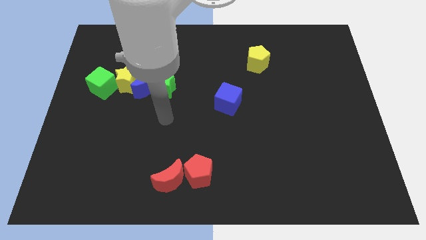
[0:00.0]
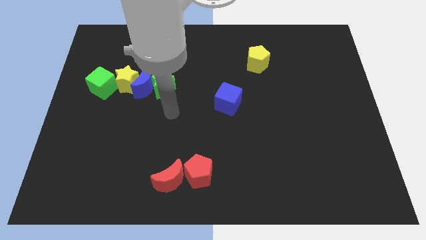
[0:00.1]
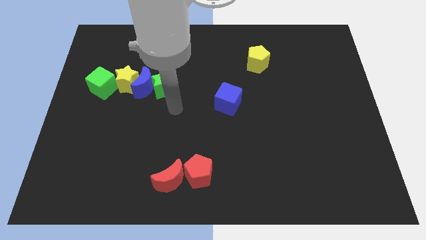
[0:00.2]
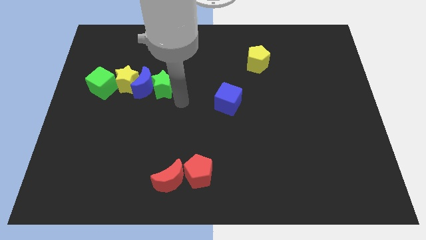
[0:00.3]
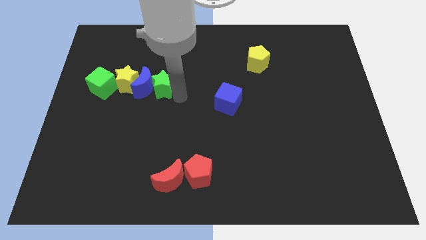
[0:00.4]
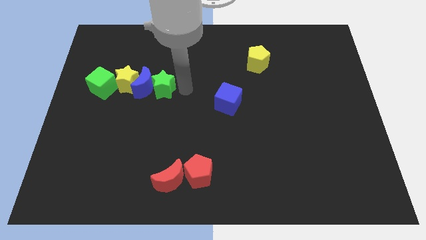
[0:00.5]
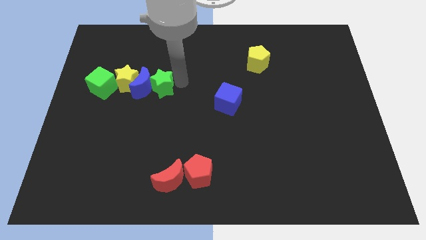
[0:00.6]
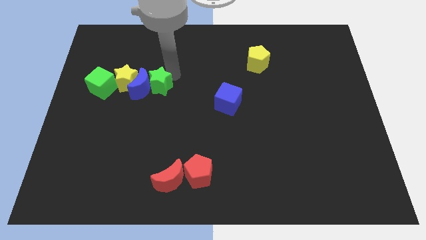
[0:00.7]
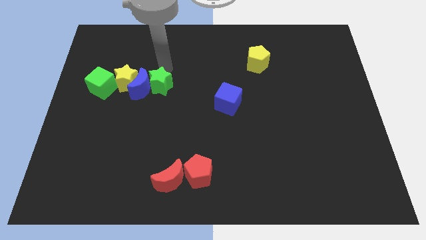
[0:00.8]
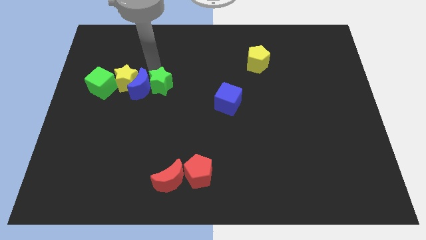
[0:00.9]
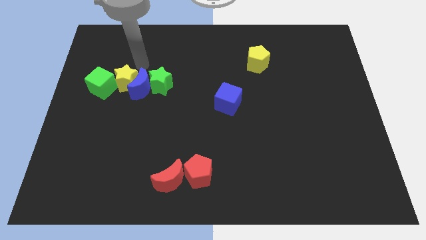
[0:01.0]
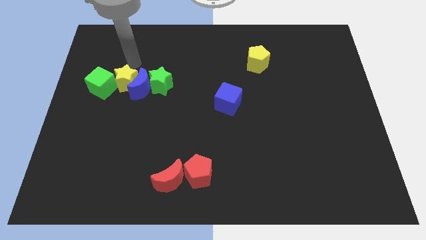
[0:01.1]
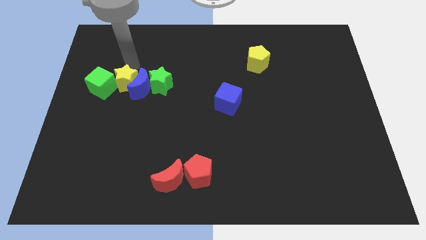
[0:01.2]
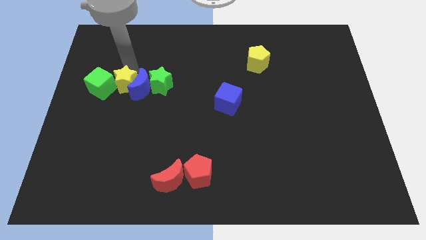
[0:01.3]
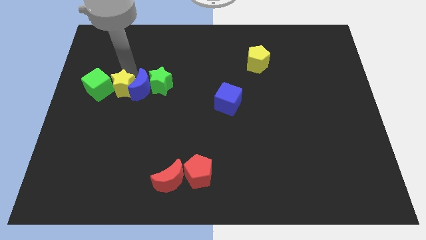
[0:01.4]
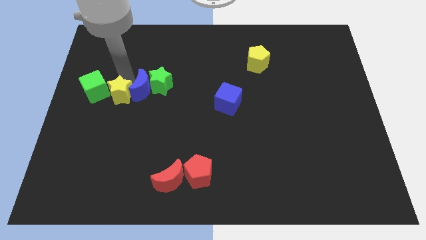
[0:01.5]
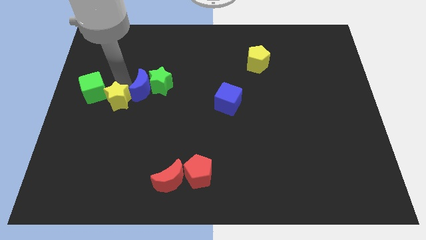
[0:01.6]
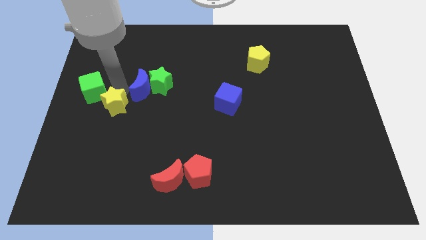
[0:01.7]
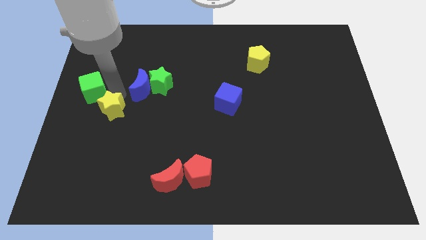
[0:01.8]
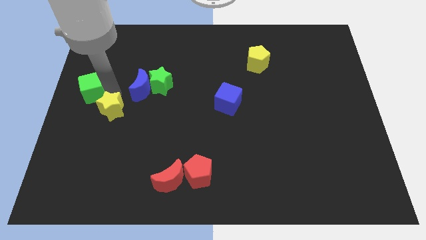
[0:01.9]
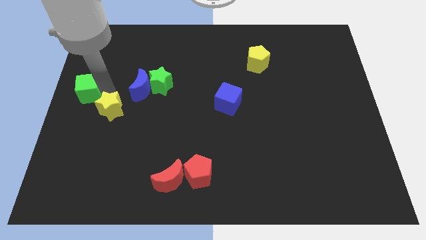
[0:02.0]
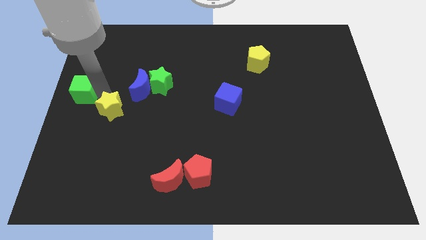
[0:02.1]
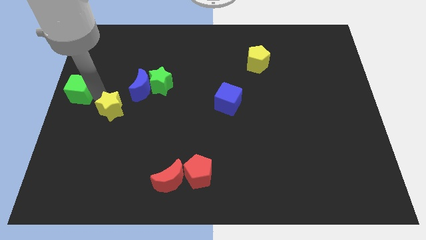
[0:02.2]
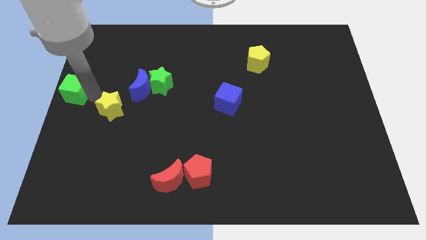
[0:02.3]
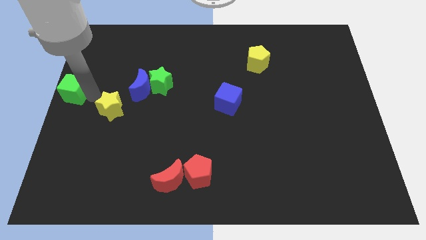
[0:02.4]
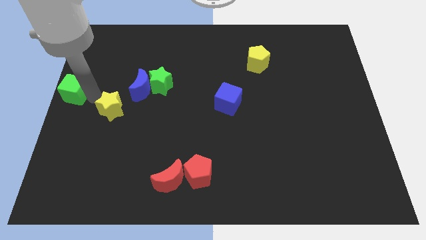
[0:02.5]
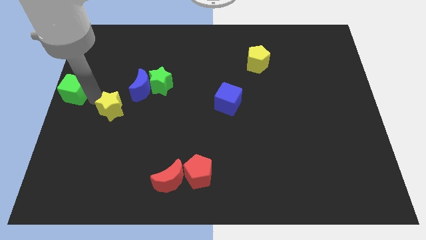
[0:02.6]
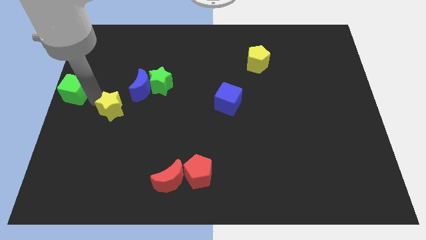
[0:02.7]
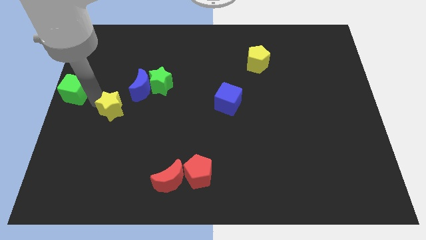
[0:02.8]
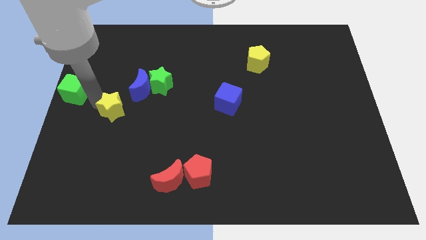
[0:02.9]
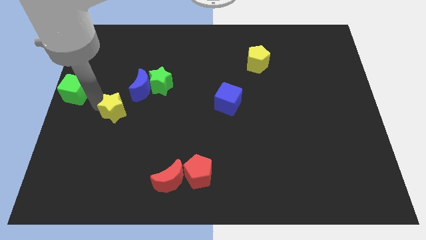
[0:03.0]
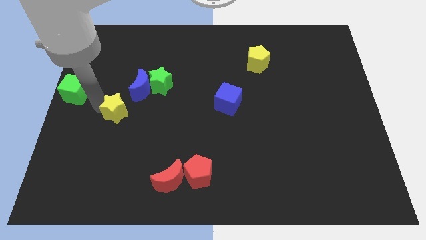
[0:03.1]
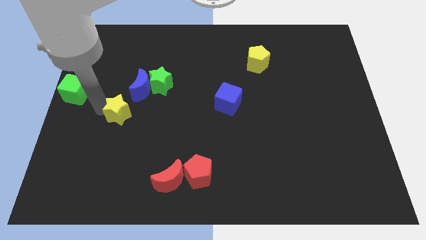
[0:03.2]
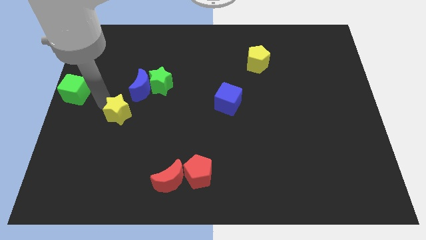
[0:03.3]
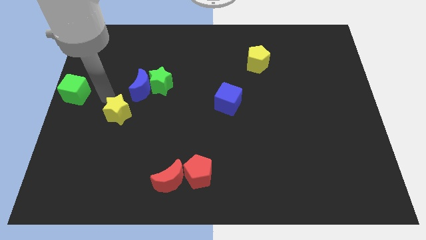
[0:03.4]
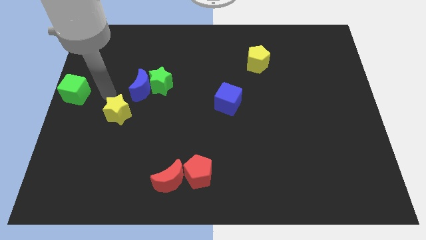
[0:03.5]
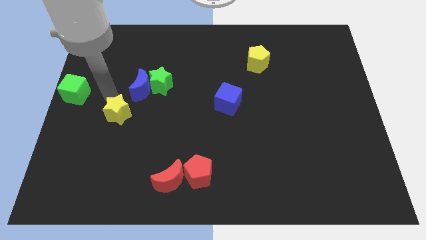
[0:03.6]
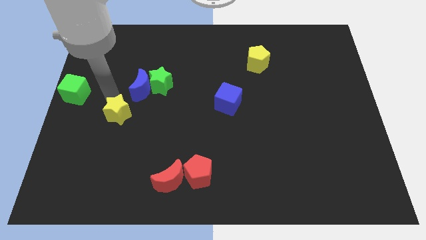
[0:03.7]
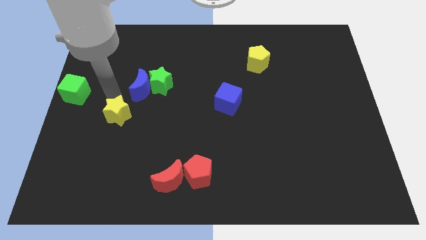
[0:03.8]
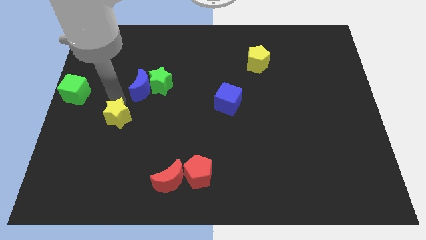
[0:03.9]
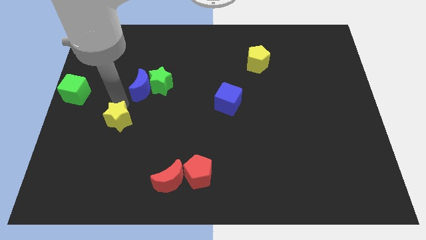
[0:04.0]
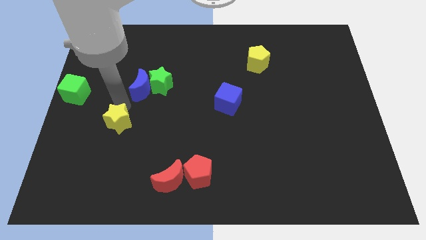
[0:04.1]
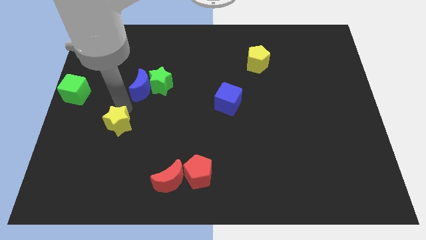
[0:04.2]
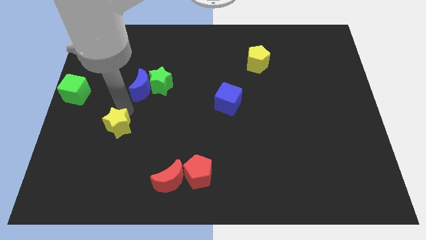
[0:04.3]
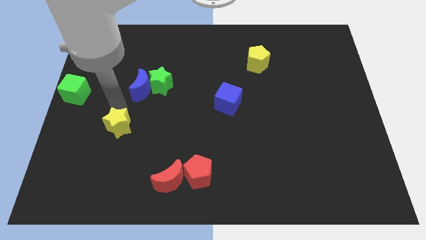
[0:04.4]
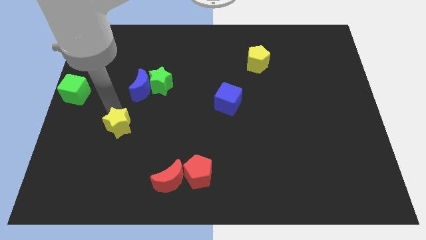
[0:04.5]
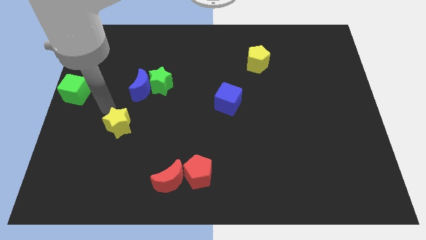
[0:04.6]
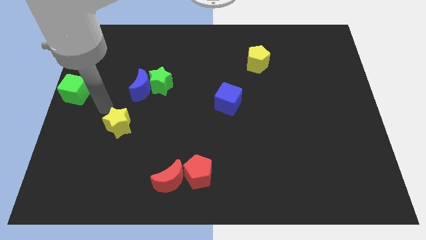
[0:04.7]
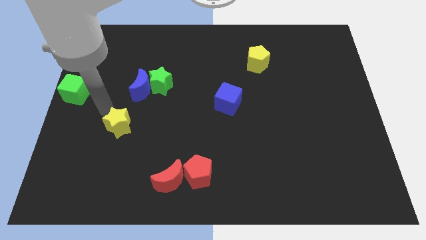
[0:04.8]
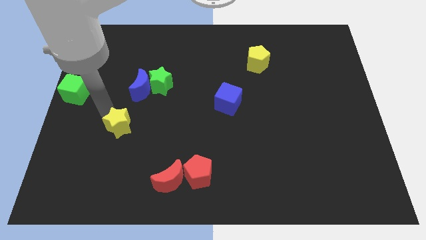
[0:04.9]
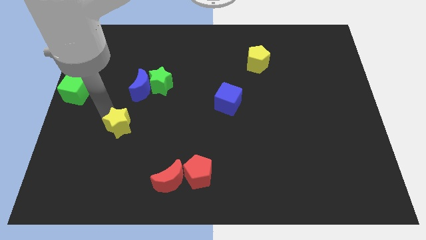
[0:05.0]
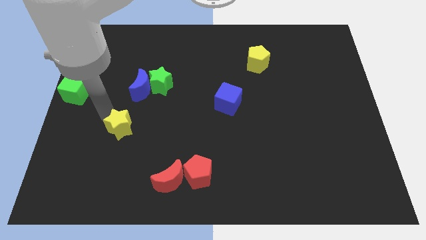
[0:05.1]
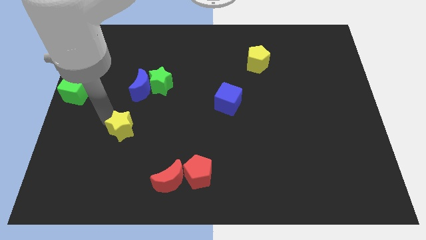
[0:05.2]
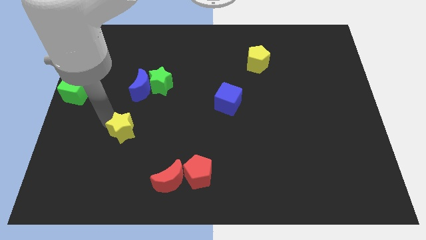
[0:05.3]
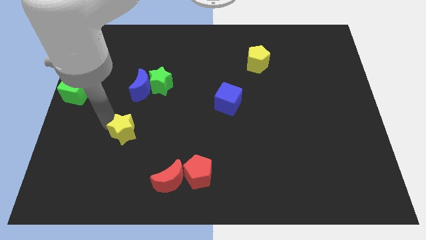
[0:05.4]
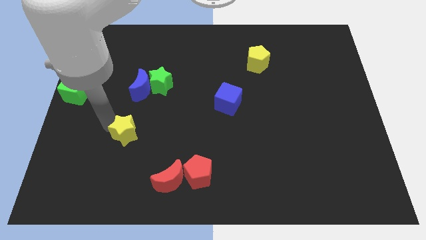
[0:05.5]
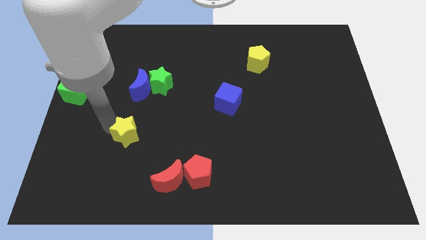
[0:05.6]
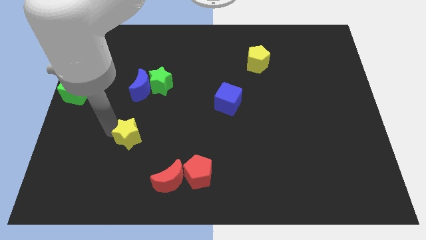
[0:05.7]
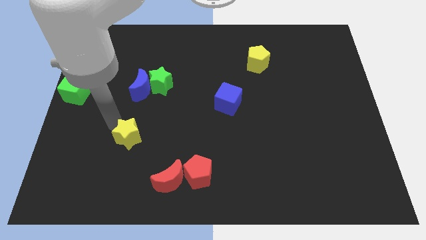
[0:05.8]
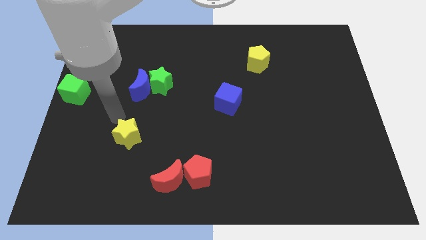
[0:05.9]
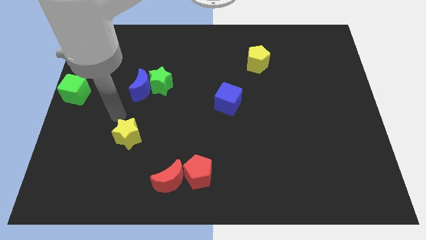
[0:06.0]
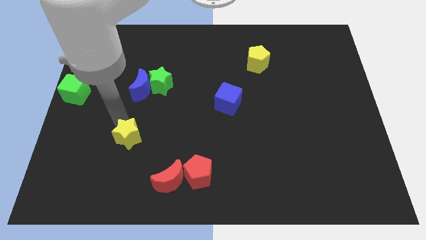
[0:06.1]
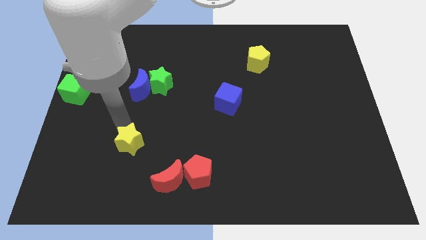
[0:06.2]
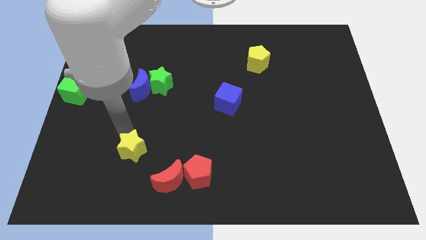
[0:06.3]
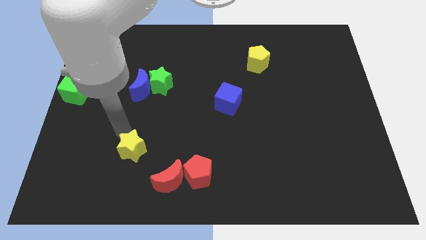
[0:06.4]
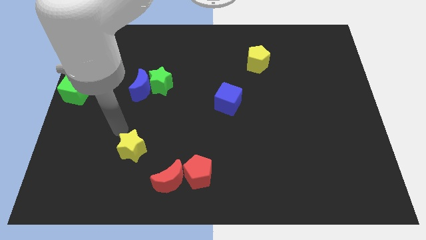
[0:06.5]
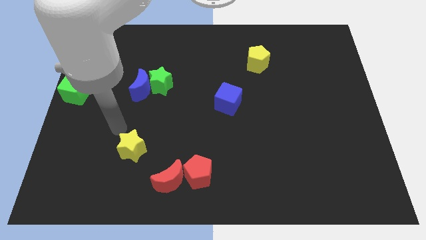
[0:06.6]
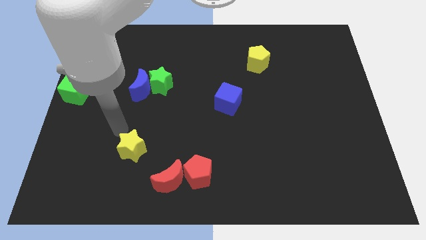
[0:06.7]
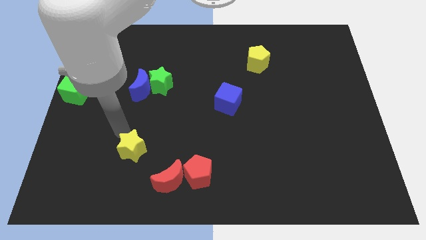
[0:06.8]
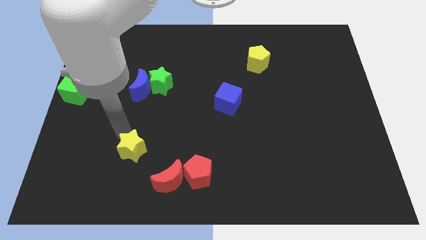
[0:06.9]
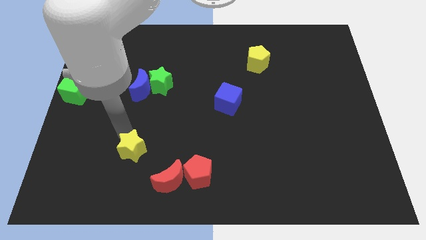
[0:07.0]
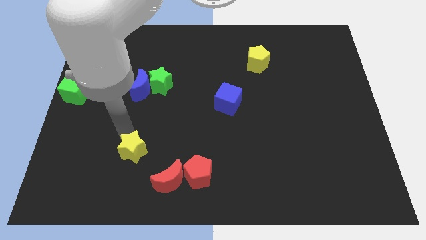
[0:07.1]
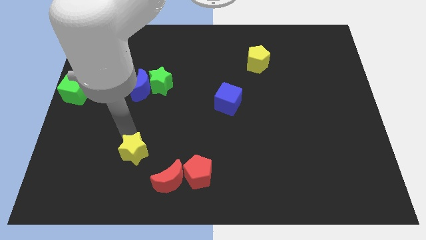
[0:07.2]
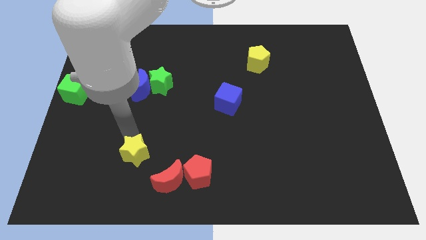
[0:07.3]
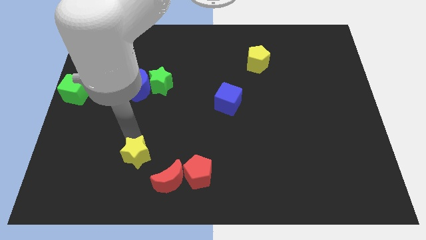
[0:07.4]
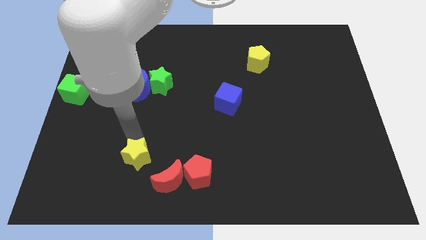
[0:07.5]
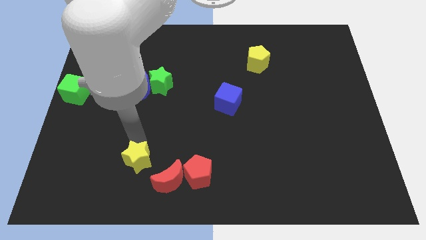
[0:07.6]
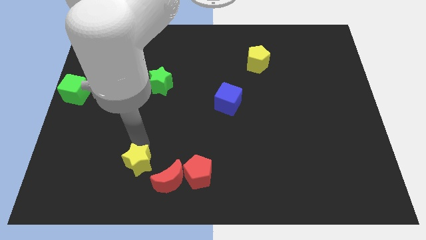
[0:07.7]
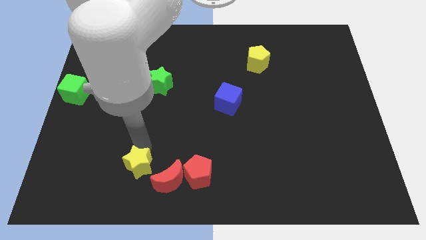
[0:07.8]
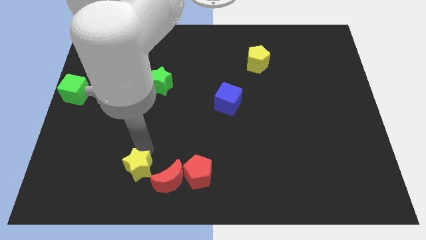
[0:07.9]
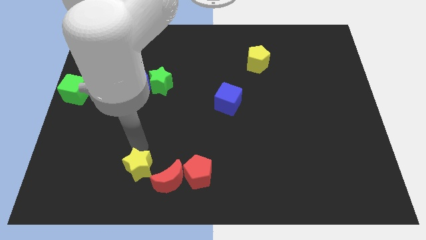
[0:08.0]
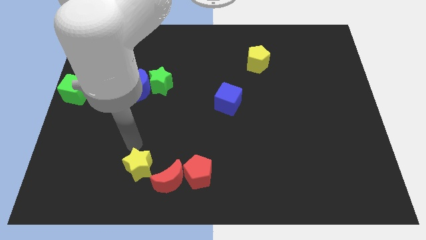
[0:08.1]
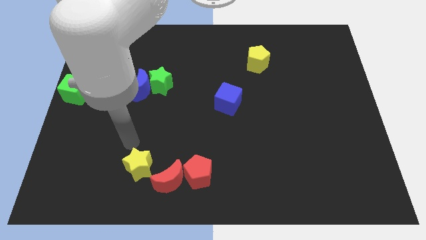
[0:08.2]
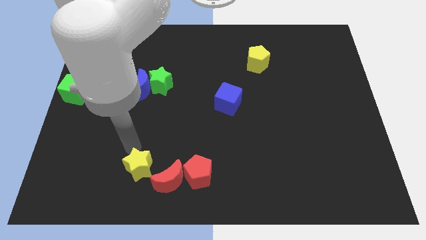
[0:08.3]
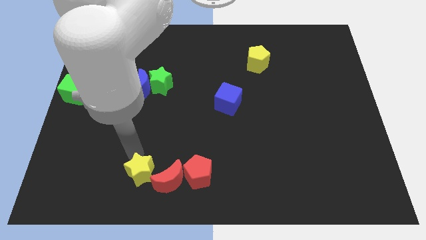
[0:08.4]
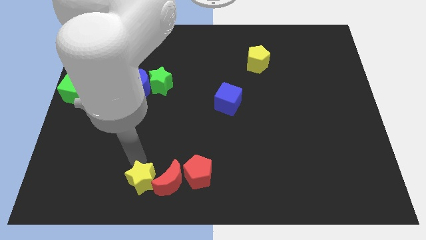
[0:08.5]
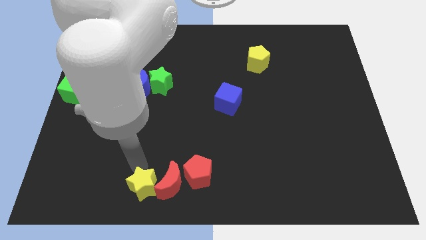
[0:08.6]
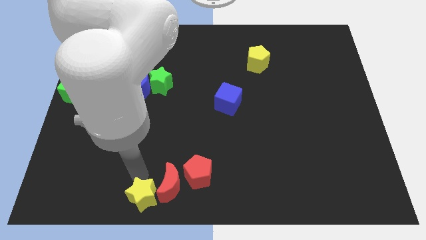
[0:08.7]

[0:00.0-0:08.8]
put the yellow star to the bottom side
